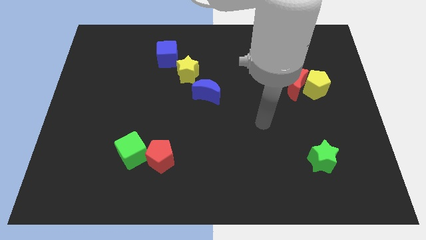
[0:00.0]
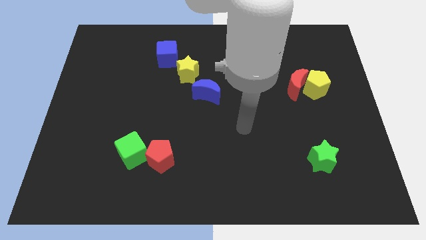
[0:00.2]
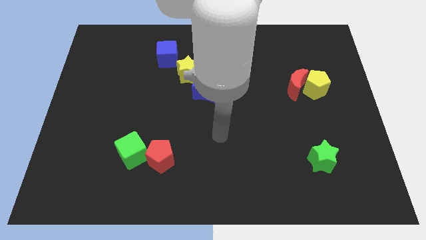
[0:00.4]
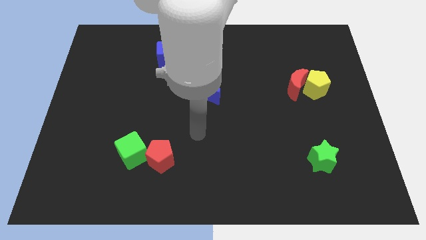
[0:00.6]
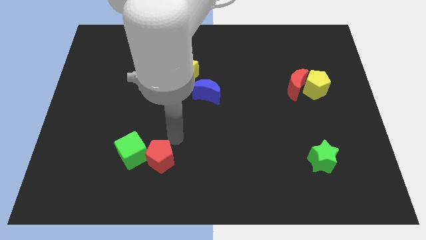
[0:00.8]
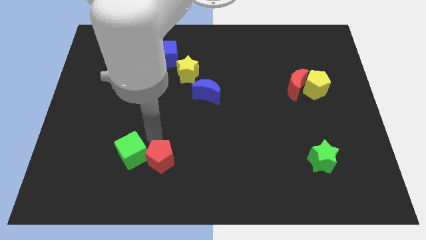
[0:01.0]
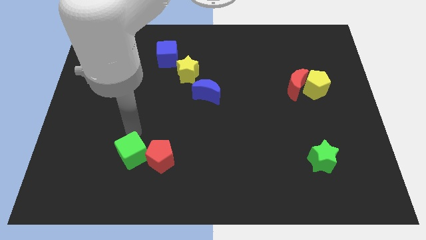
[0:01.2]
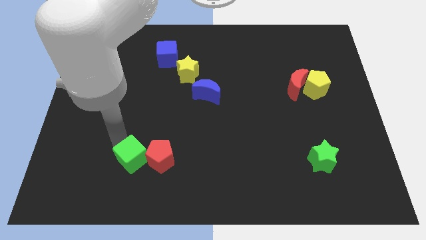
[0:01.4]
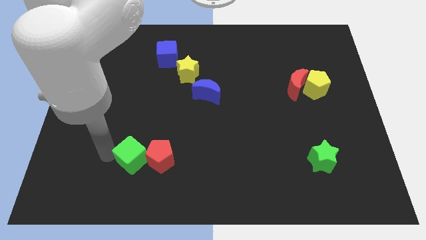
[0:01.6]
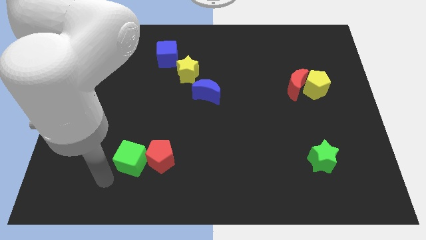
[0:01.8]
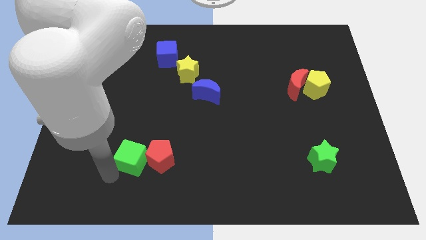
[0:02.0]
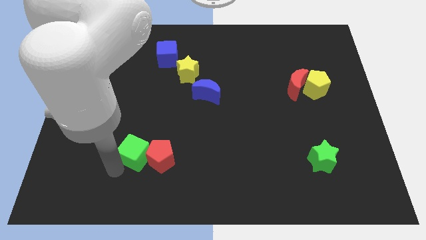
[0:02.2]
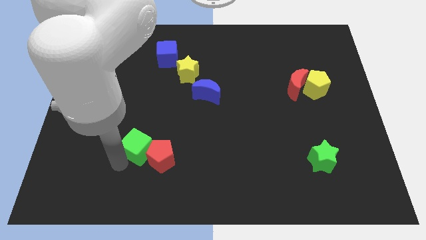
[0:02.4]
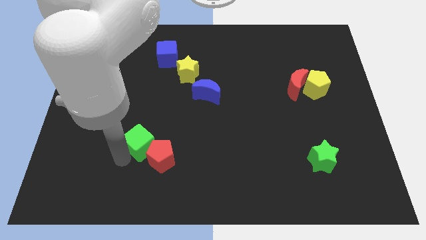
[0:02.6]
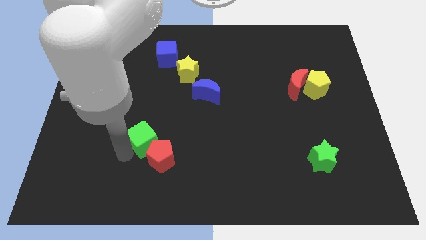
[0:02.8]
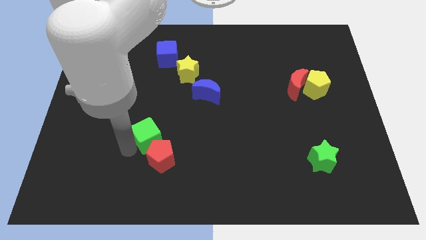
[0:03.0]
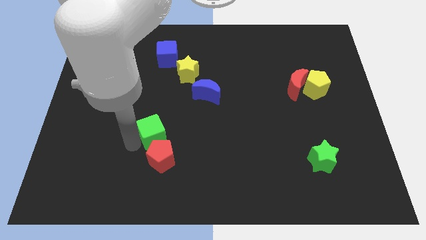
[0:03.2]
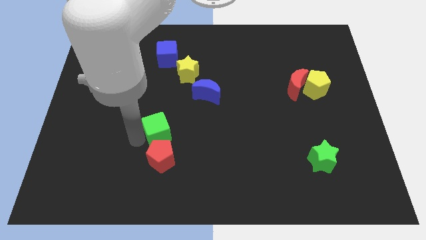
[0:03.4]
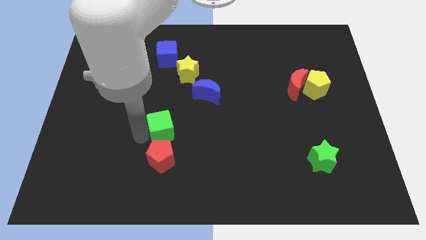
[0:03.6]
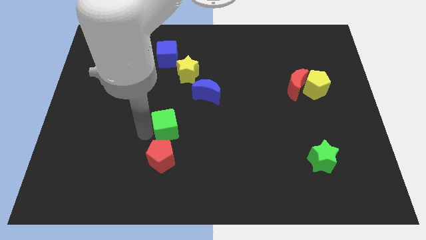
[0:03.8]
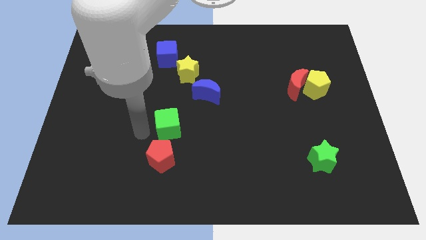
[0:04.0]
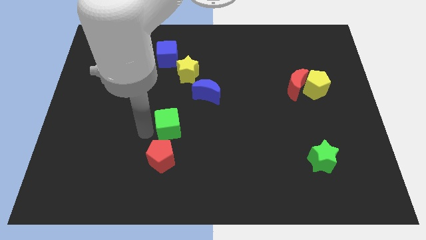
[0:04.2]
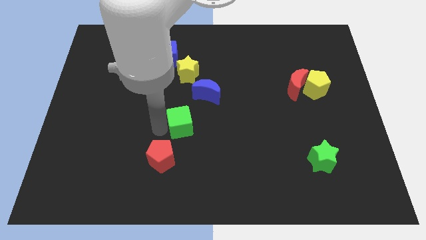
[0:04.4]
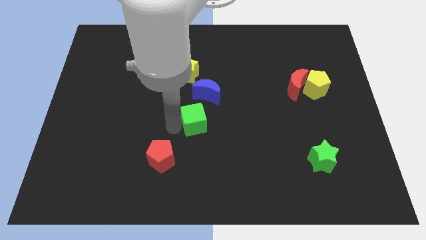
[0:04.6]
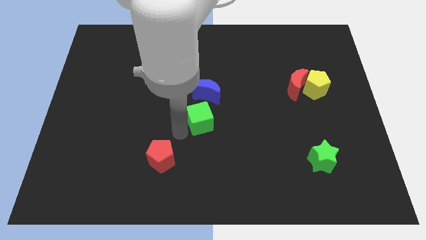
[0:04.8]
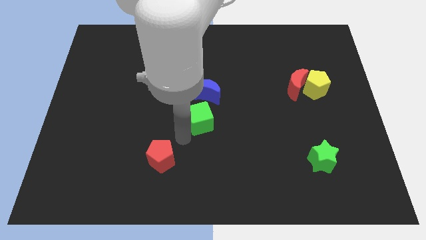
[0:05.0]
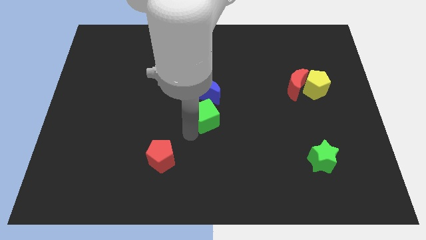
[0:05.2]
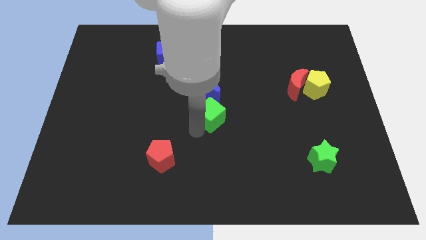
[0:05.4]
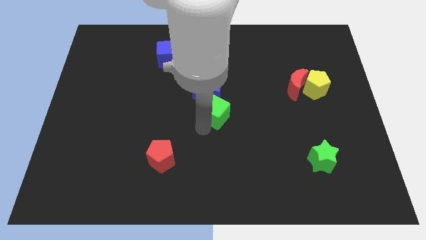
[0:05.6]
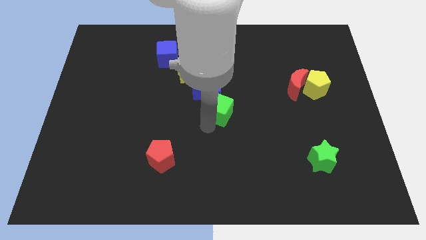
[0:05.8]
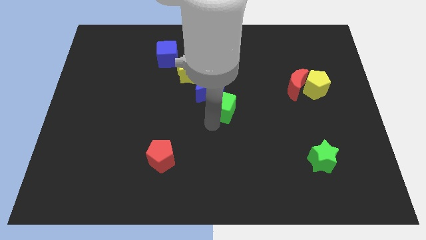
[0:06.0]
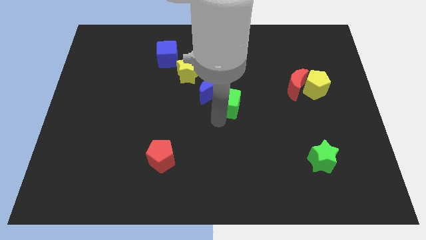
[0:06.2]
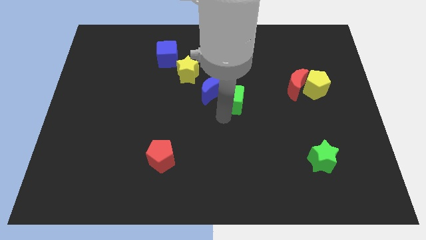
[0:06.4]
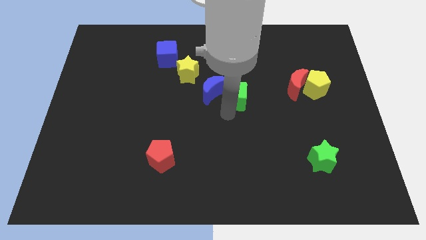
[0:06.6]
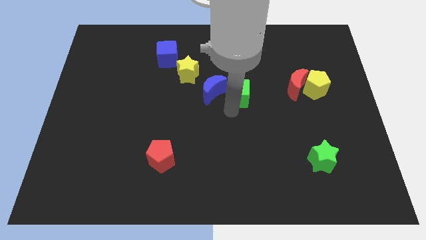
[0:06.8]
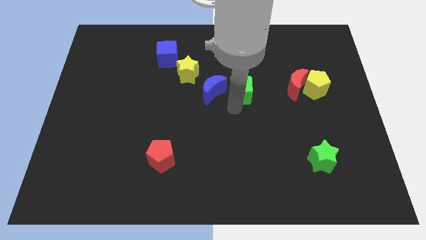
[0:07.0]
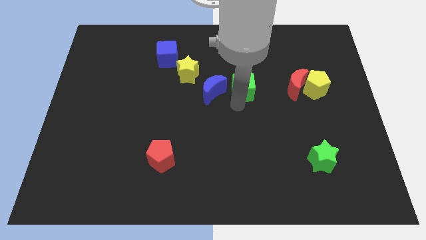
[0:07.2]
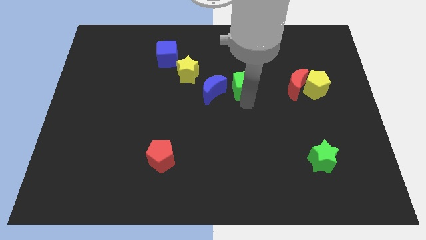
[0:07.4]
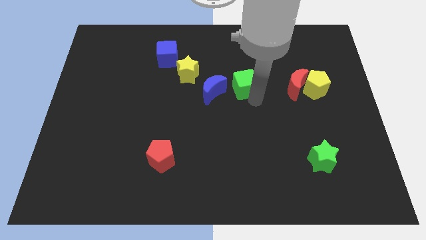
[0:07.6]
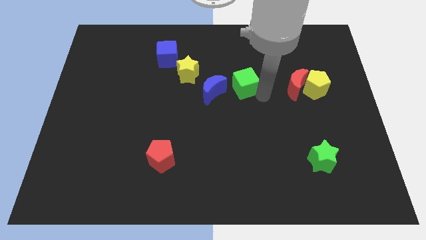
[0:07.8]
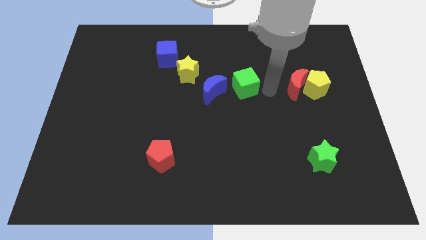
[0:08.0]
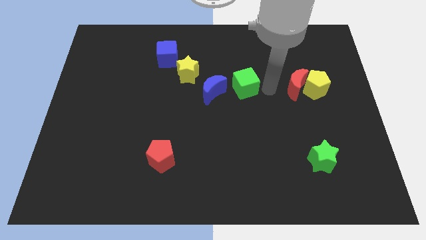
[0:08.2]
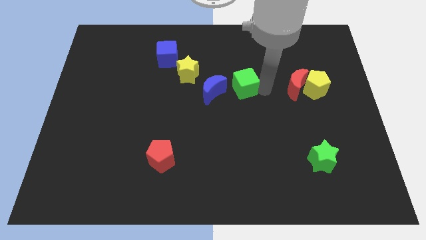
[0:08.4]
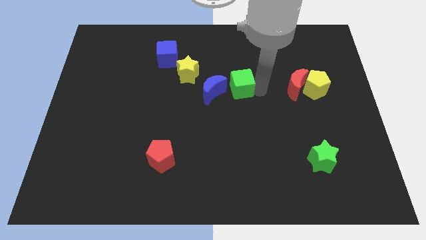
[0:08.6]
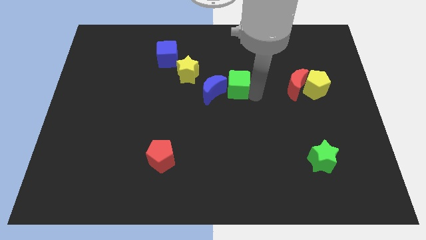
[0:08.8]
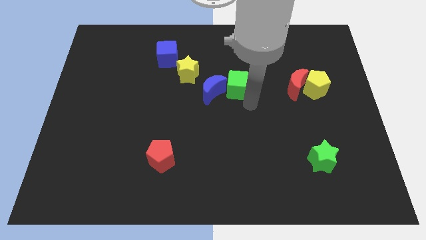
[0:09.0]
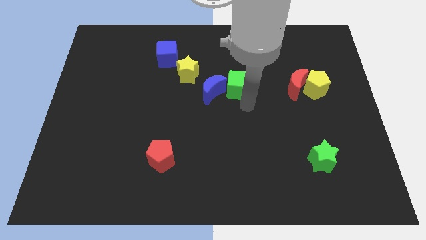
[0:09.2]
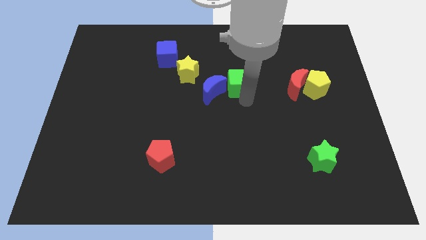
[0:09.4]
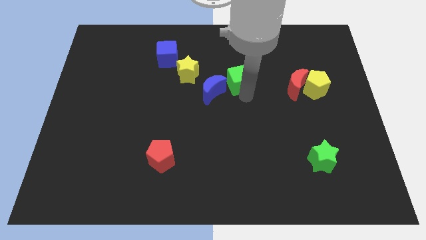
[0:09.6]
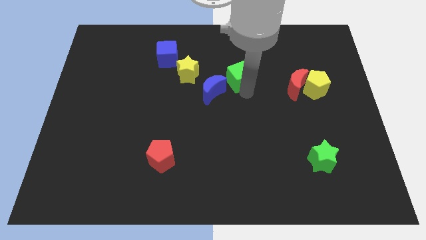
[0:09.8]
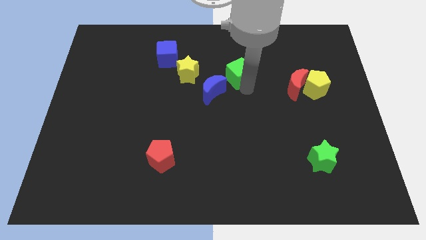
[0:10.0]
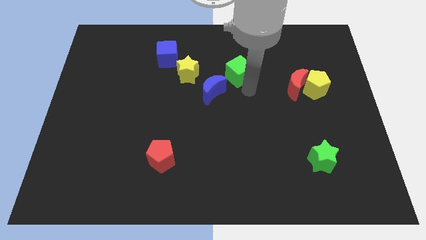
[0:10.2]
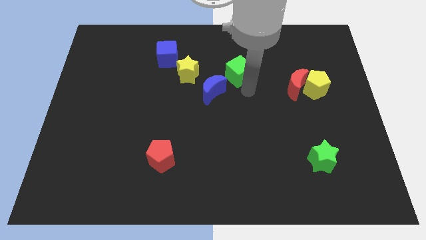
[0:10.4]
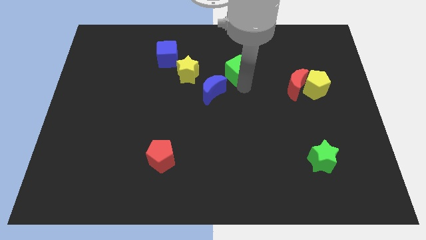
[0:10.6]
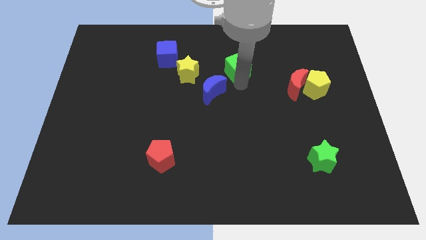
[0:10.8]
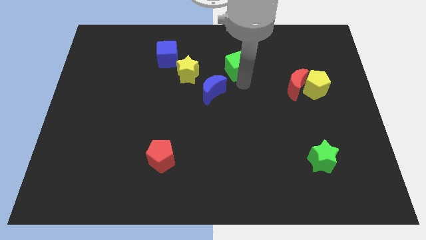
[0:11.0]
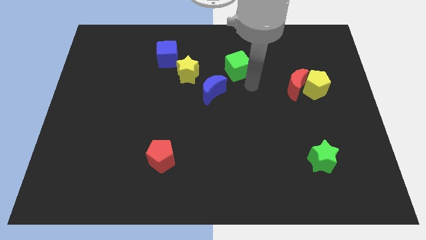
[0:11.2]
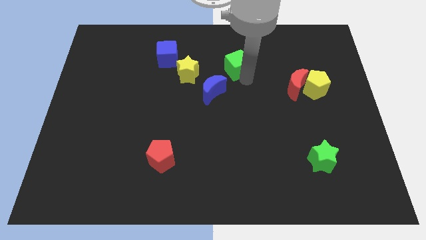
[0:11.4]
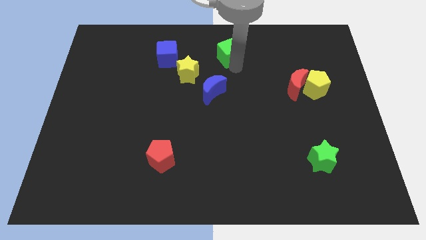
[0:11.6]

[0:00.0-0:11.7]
slide the green cube to the top side

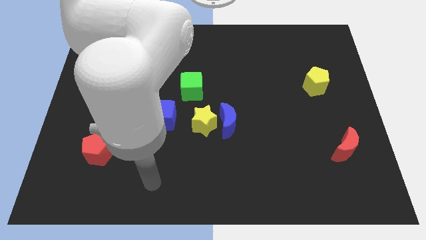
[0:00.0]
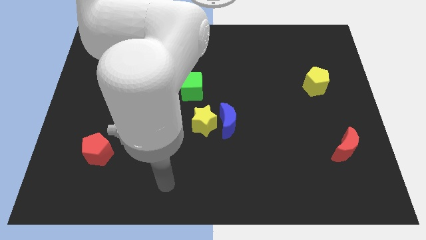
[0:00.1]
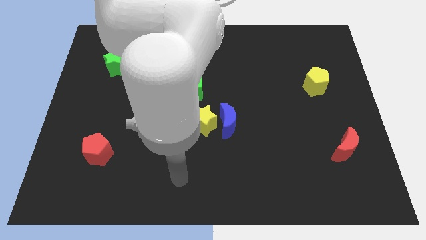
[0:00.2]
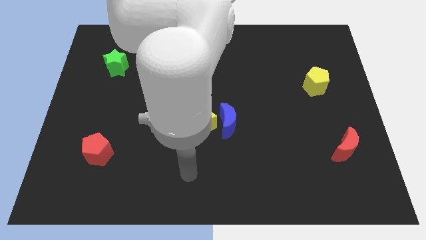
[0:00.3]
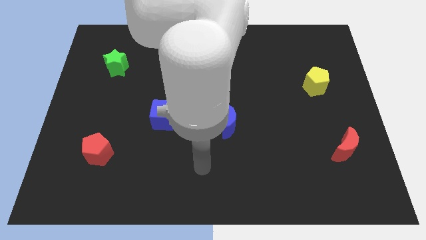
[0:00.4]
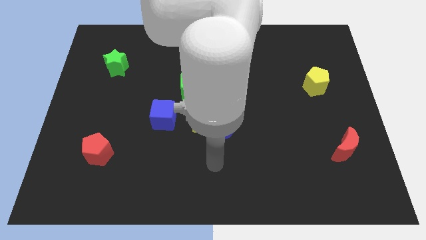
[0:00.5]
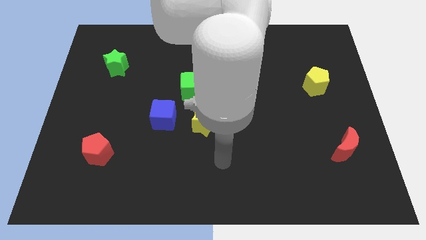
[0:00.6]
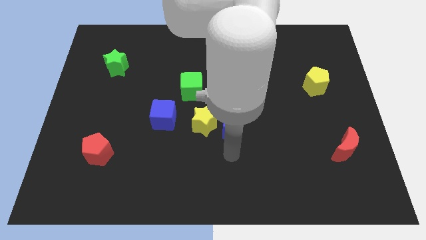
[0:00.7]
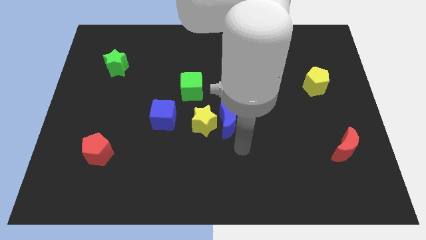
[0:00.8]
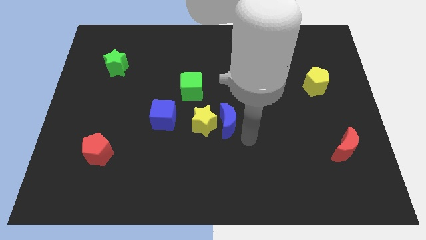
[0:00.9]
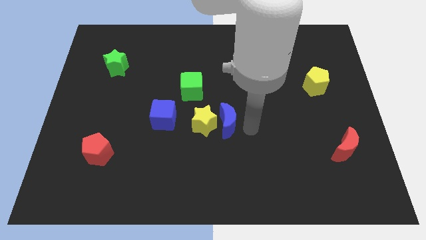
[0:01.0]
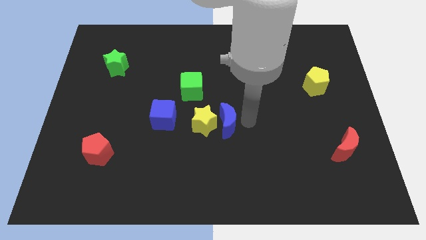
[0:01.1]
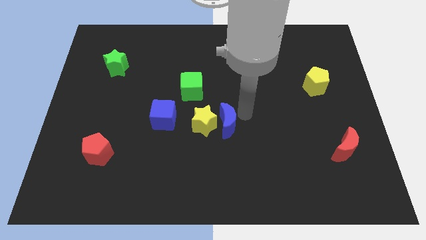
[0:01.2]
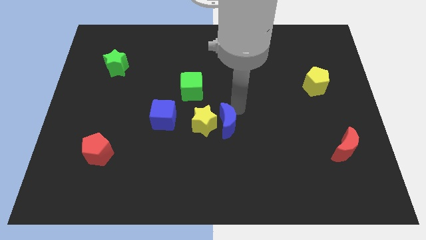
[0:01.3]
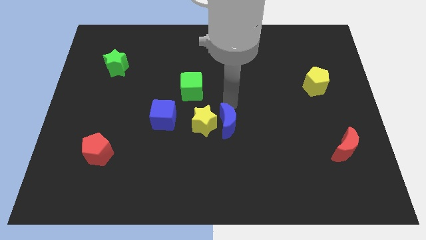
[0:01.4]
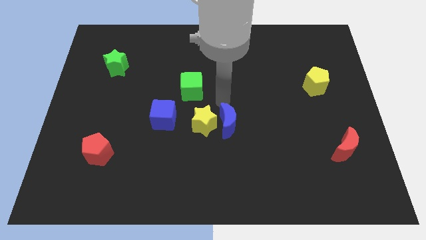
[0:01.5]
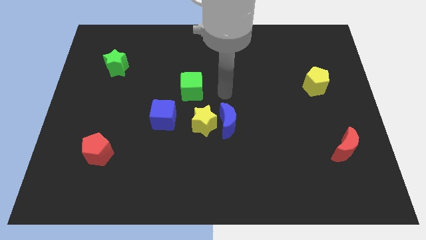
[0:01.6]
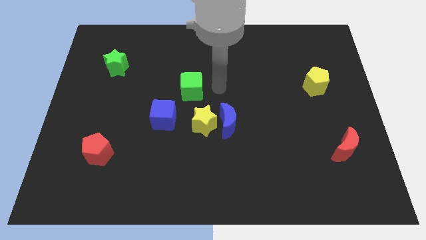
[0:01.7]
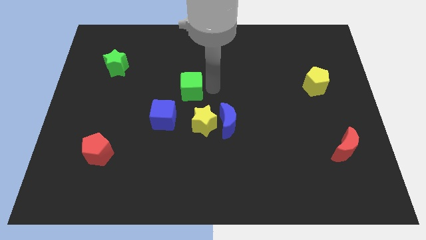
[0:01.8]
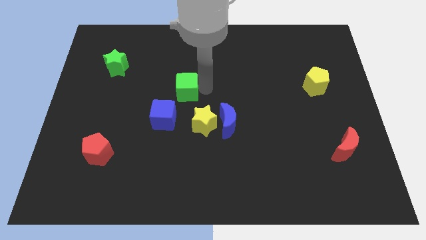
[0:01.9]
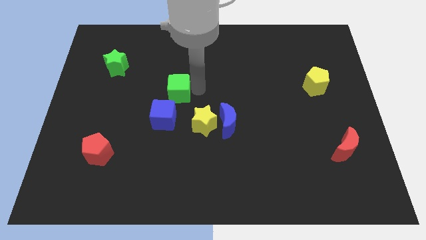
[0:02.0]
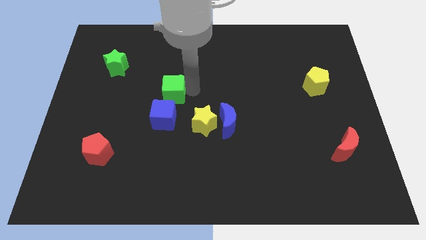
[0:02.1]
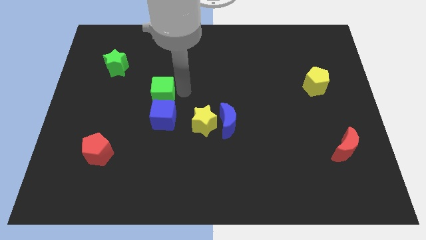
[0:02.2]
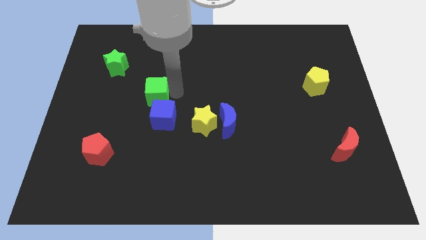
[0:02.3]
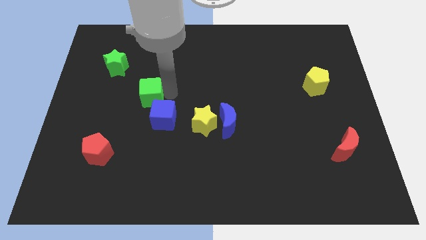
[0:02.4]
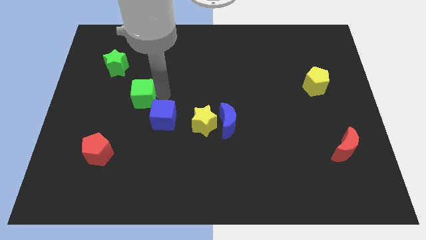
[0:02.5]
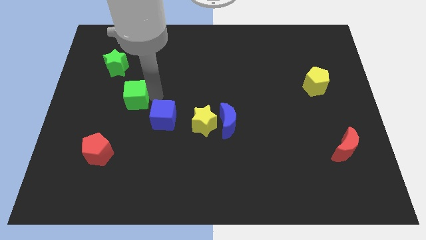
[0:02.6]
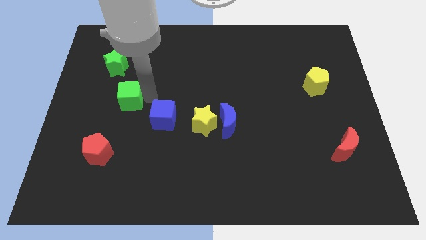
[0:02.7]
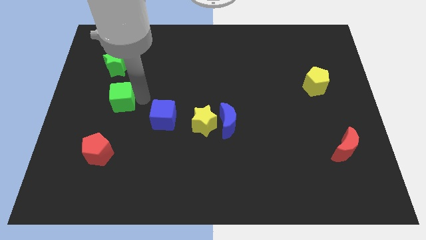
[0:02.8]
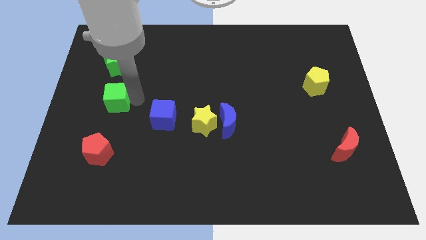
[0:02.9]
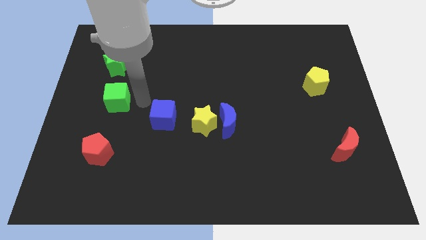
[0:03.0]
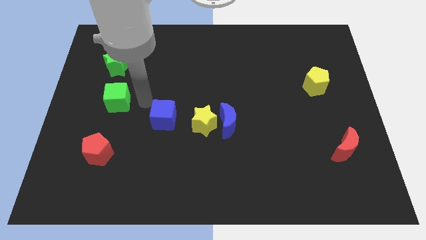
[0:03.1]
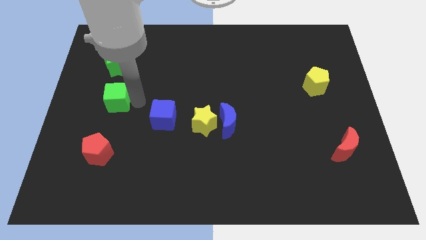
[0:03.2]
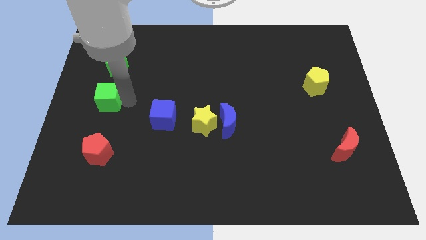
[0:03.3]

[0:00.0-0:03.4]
put the green cube to the center left
